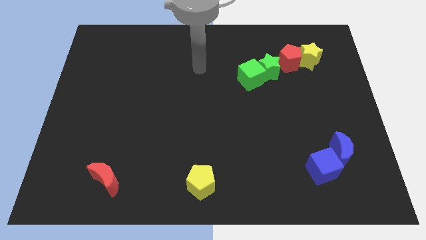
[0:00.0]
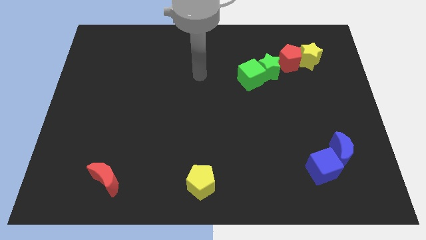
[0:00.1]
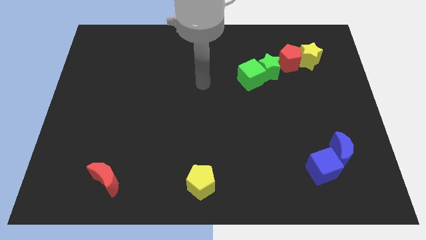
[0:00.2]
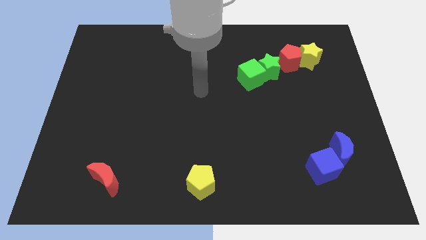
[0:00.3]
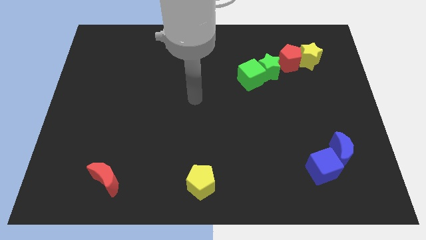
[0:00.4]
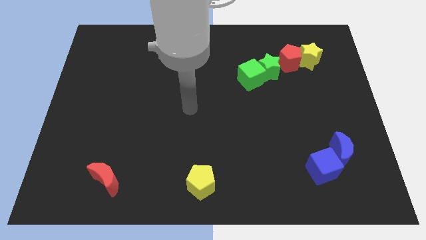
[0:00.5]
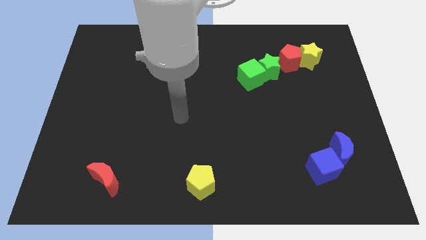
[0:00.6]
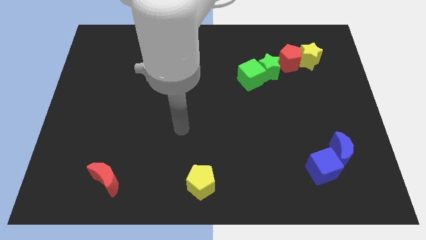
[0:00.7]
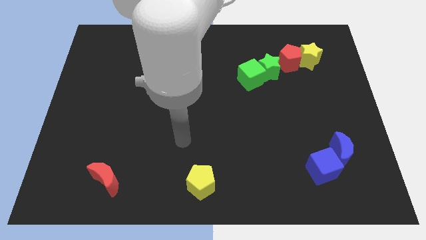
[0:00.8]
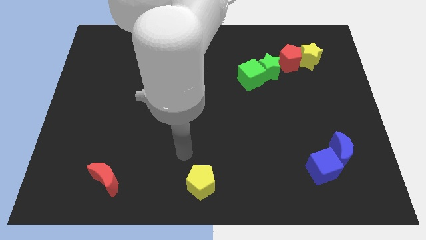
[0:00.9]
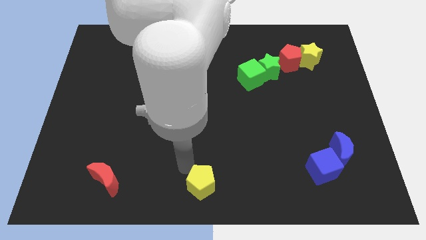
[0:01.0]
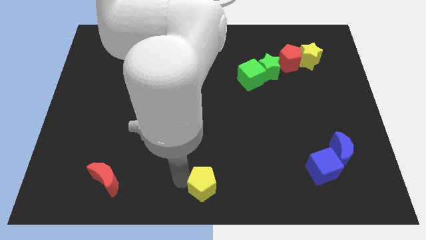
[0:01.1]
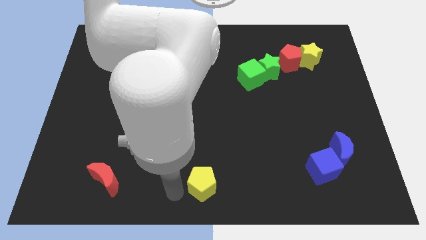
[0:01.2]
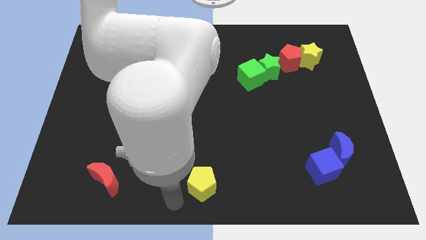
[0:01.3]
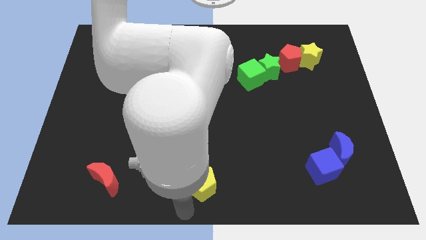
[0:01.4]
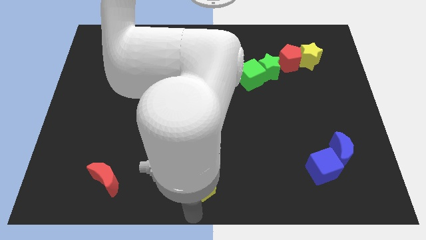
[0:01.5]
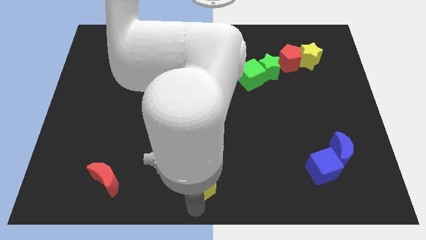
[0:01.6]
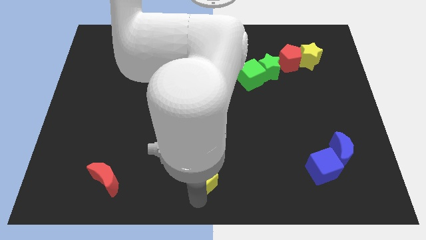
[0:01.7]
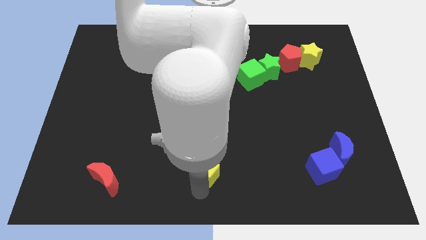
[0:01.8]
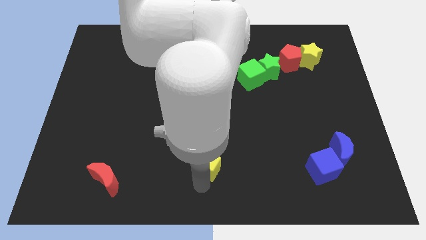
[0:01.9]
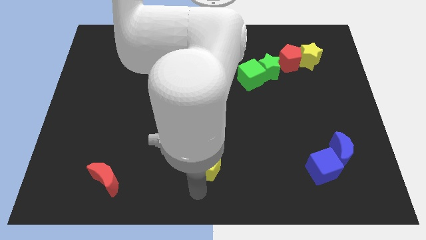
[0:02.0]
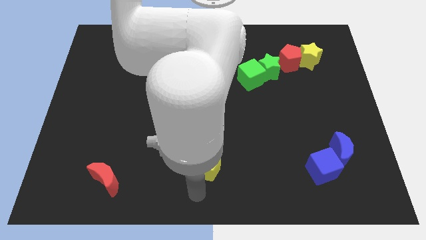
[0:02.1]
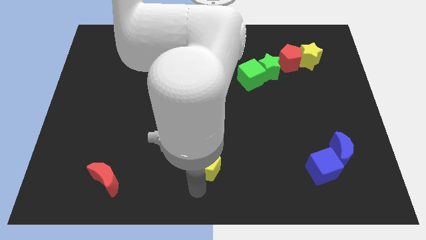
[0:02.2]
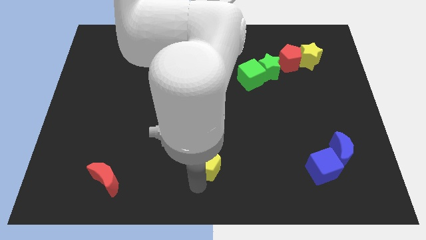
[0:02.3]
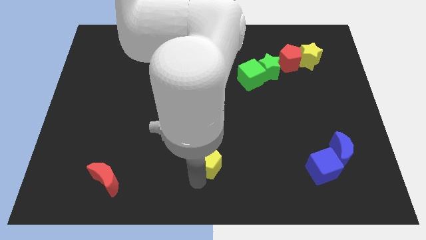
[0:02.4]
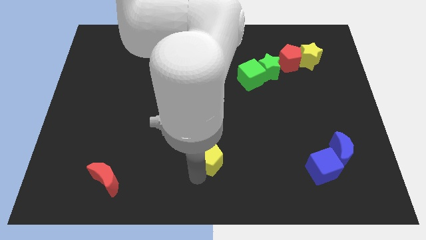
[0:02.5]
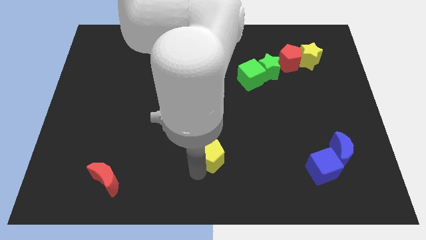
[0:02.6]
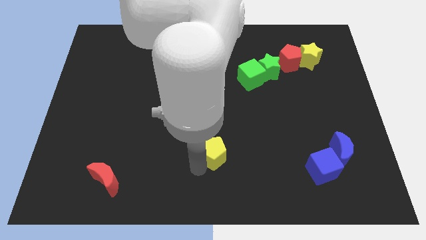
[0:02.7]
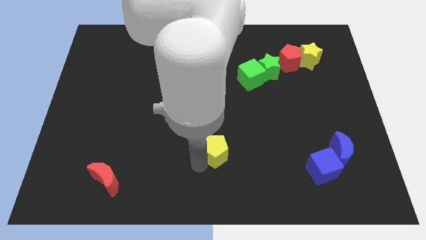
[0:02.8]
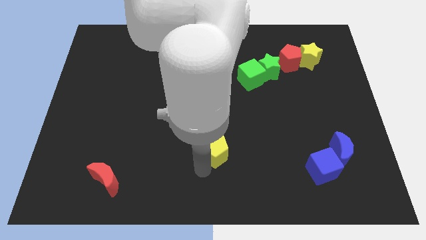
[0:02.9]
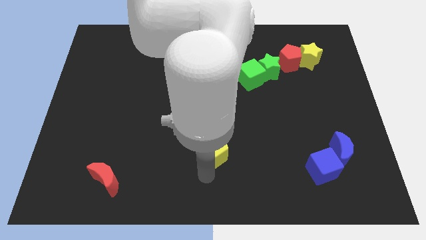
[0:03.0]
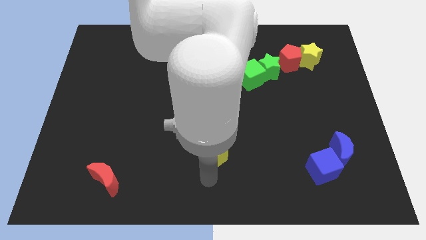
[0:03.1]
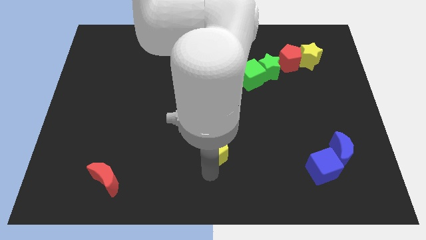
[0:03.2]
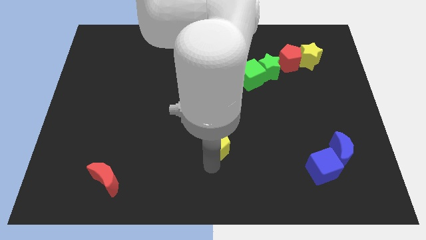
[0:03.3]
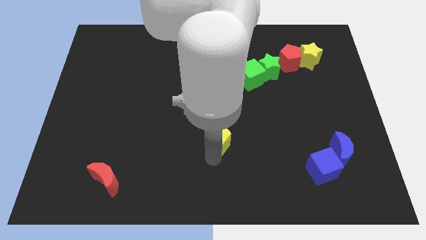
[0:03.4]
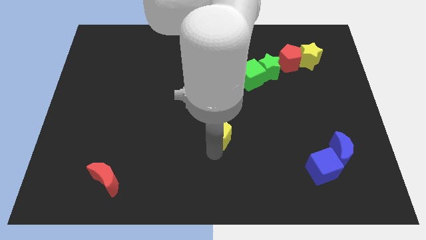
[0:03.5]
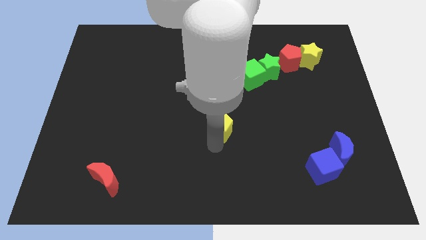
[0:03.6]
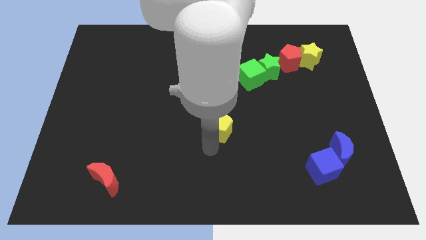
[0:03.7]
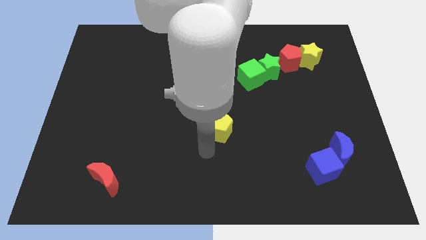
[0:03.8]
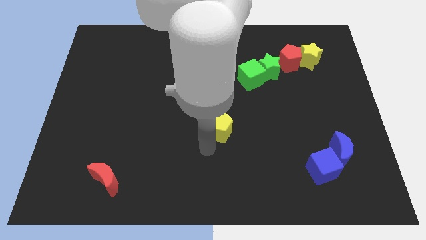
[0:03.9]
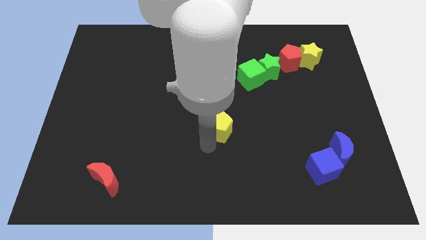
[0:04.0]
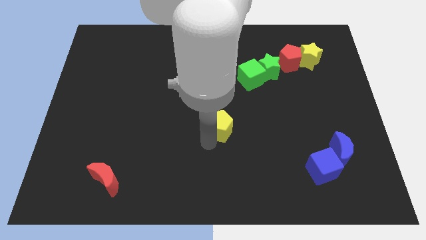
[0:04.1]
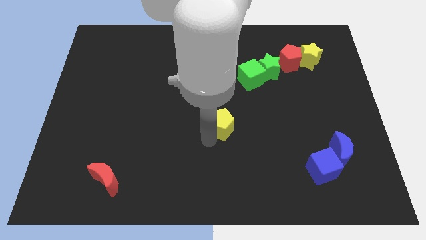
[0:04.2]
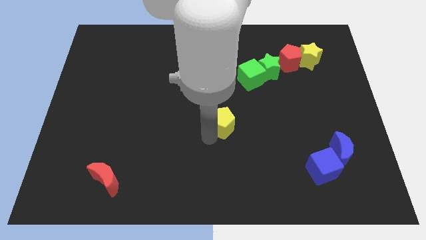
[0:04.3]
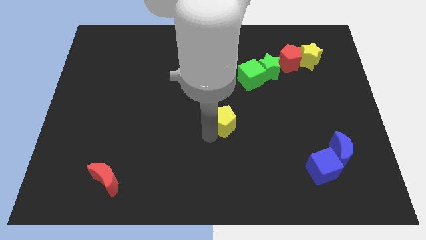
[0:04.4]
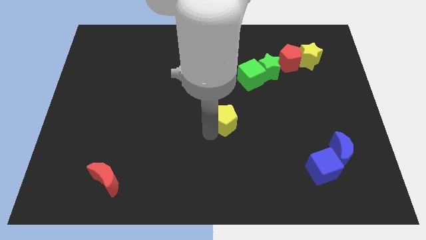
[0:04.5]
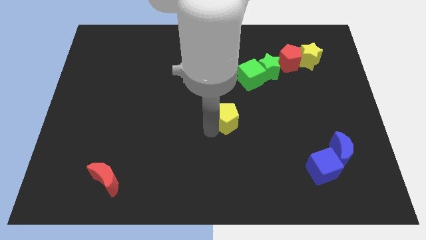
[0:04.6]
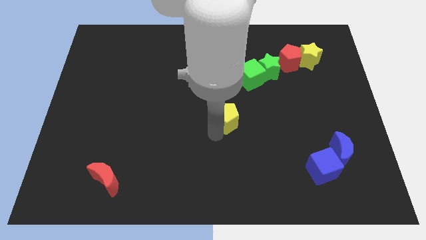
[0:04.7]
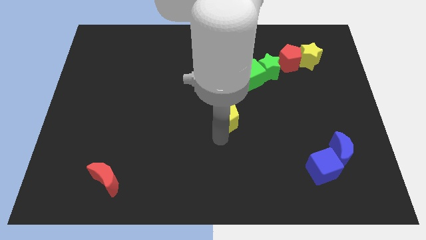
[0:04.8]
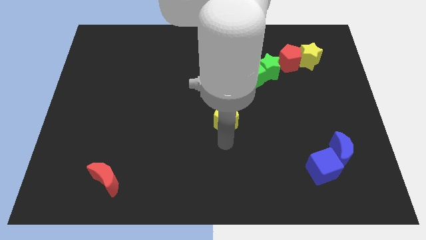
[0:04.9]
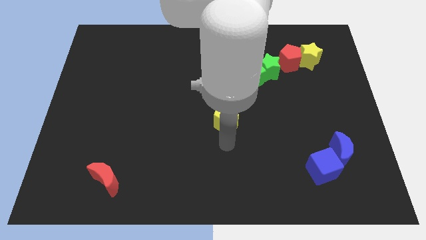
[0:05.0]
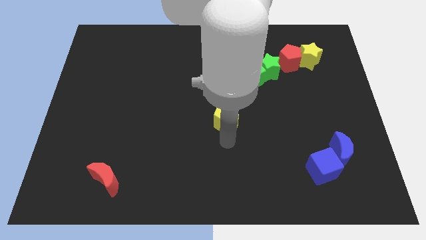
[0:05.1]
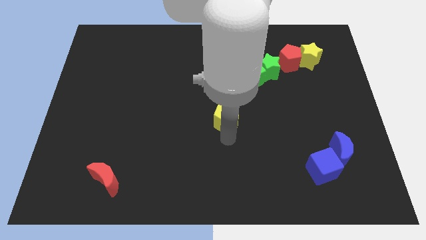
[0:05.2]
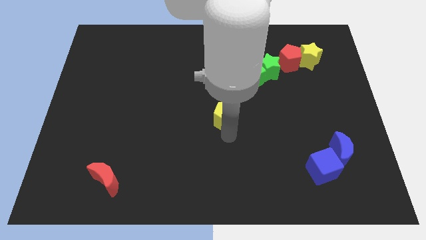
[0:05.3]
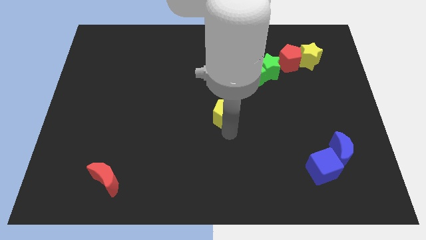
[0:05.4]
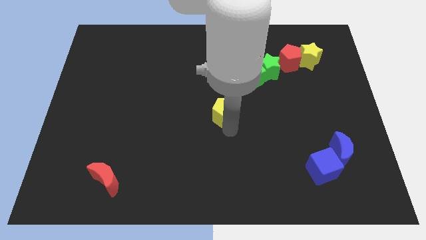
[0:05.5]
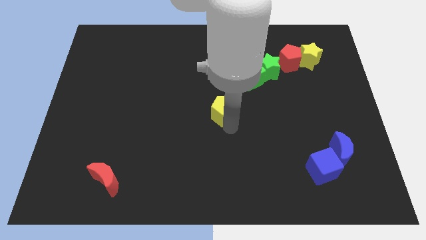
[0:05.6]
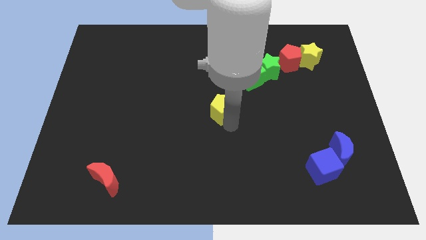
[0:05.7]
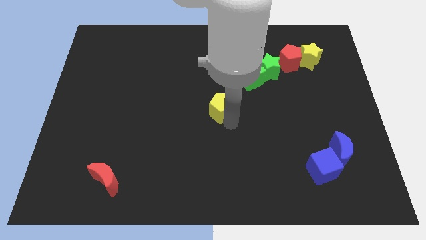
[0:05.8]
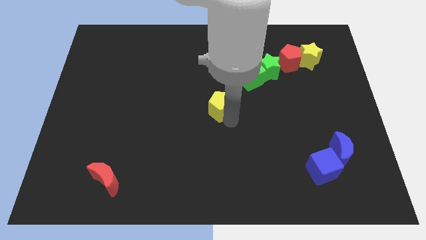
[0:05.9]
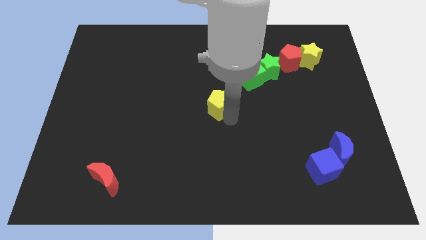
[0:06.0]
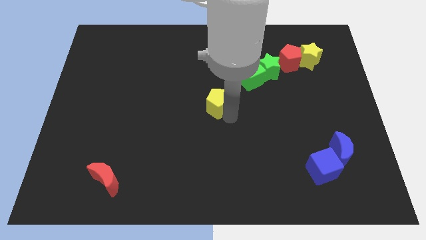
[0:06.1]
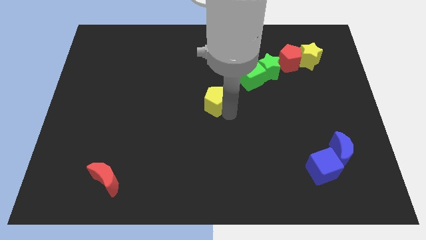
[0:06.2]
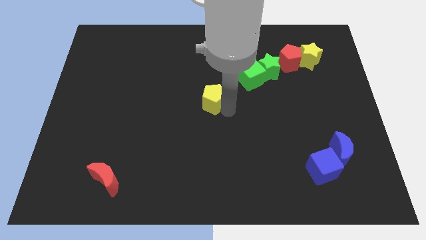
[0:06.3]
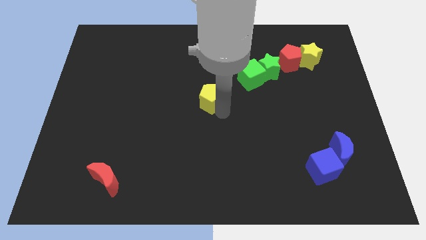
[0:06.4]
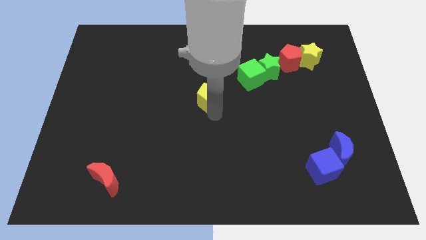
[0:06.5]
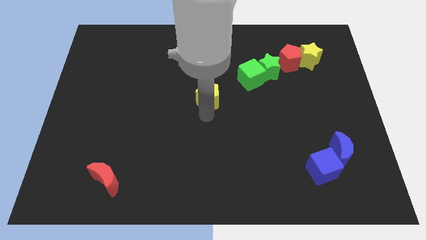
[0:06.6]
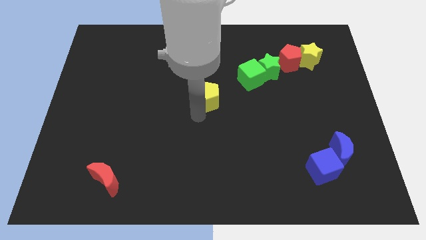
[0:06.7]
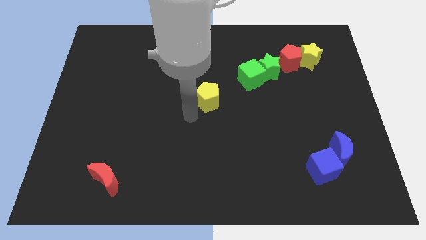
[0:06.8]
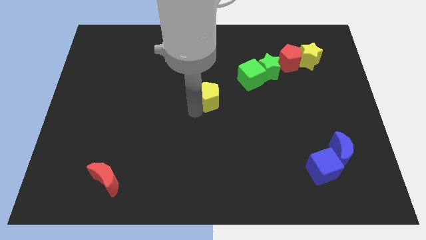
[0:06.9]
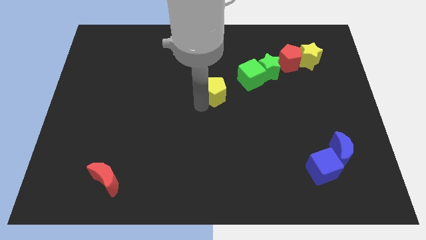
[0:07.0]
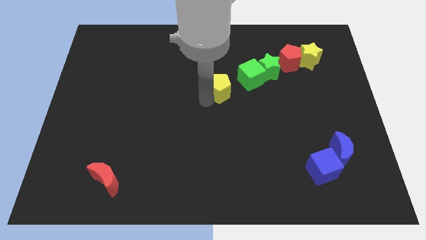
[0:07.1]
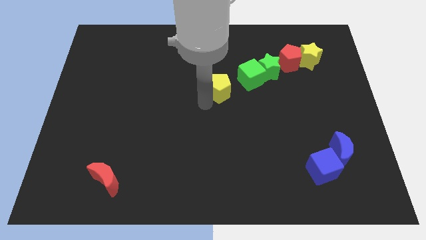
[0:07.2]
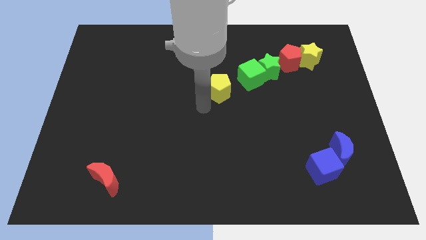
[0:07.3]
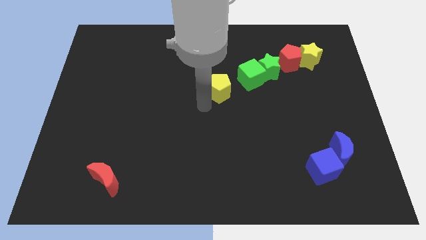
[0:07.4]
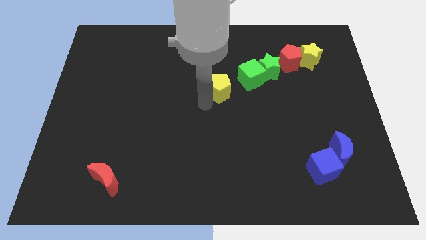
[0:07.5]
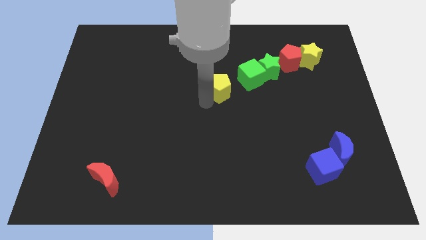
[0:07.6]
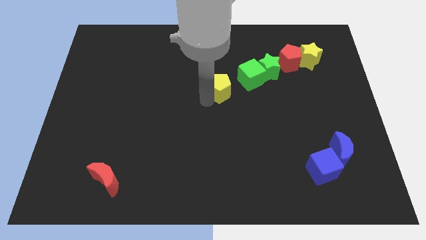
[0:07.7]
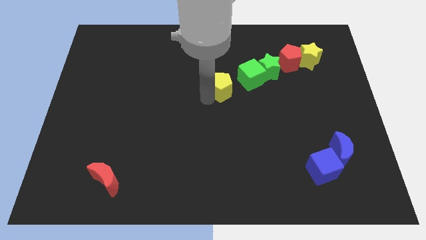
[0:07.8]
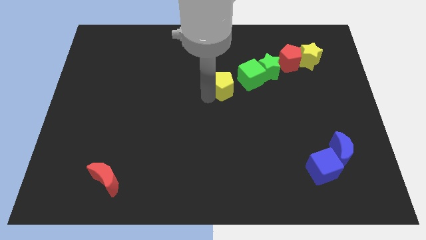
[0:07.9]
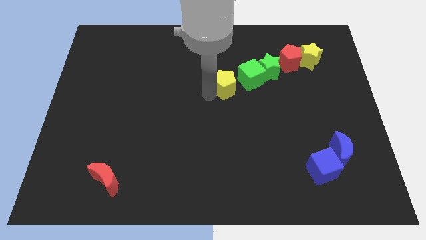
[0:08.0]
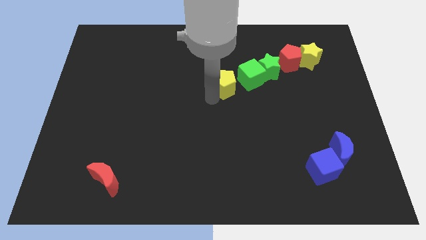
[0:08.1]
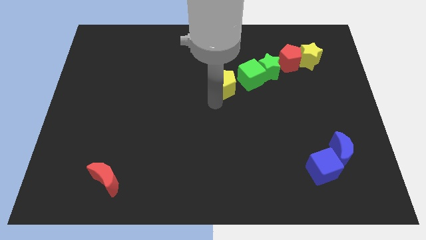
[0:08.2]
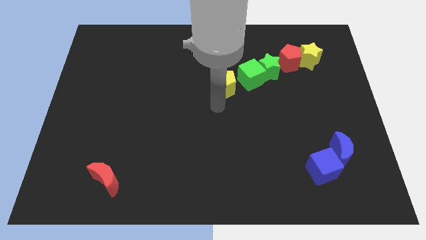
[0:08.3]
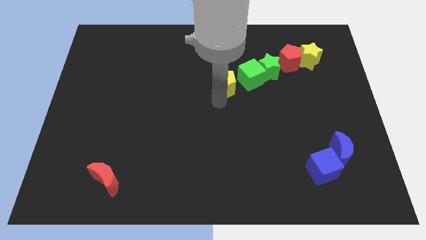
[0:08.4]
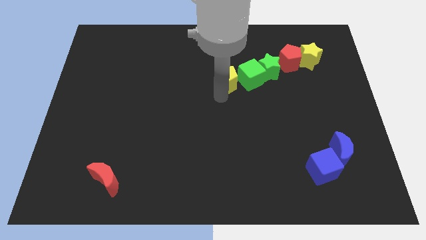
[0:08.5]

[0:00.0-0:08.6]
push the yellow pentagon left of the green star
